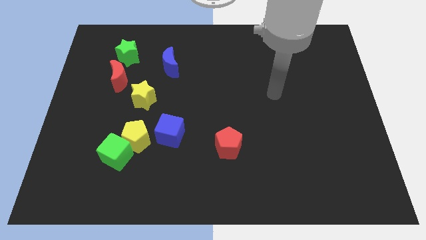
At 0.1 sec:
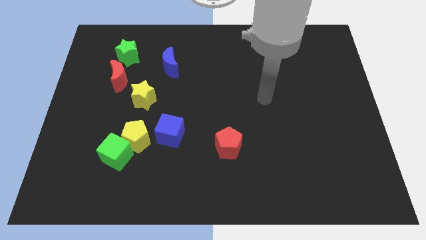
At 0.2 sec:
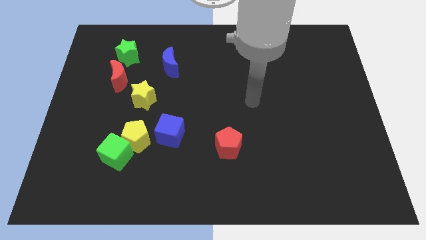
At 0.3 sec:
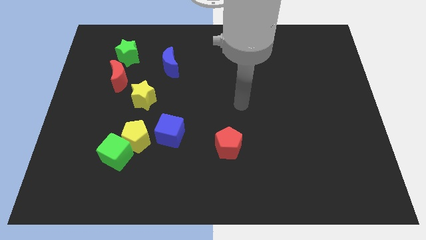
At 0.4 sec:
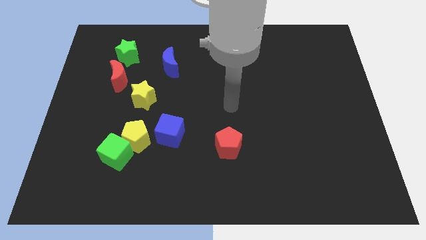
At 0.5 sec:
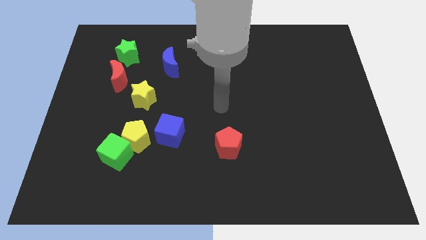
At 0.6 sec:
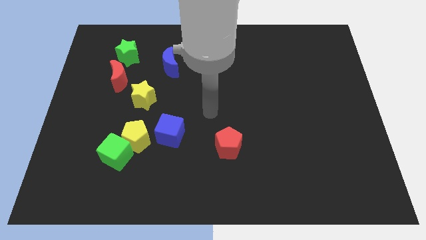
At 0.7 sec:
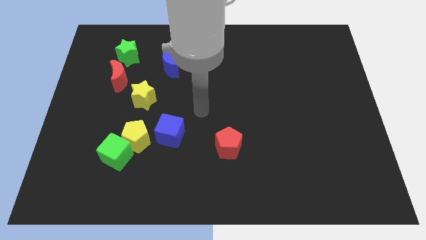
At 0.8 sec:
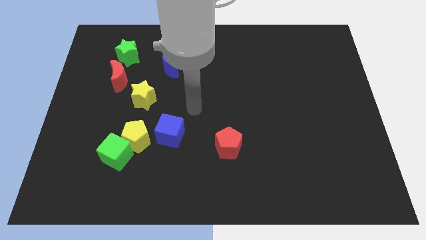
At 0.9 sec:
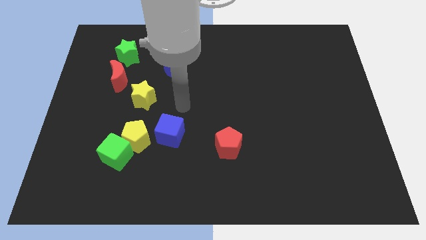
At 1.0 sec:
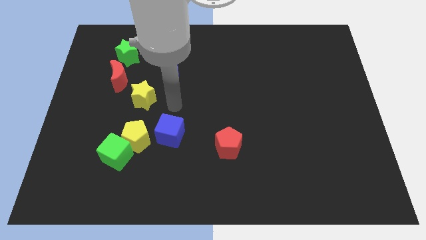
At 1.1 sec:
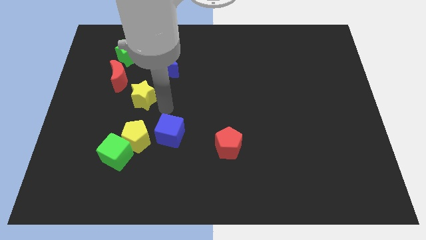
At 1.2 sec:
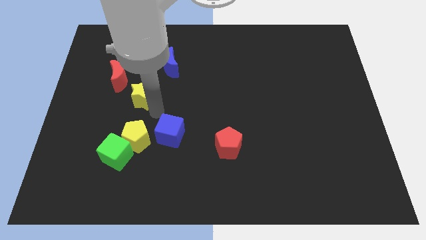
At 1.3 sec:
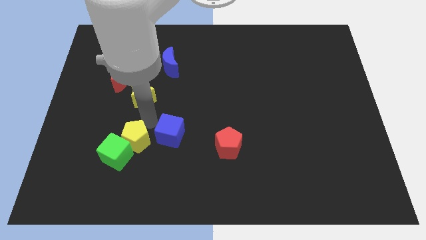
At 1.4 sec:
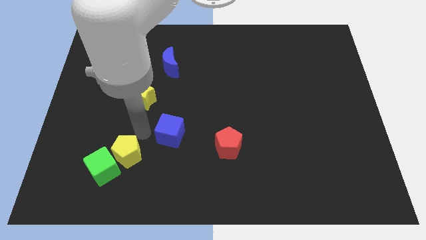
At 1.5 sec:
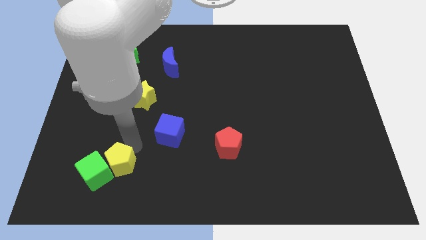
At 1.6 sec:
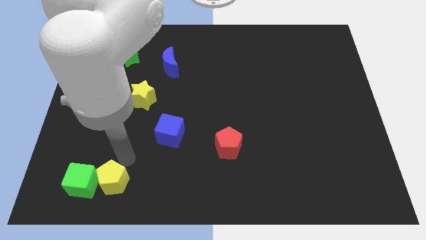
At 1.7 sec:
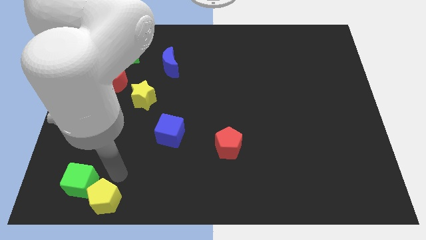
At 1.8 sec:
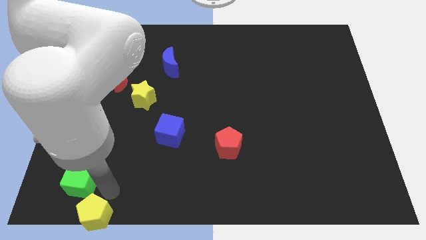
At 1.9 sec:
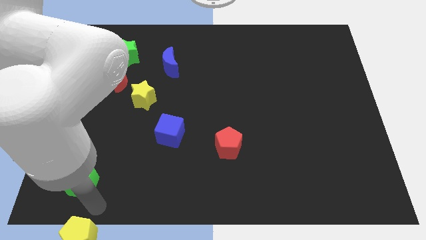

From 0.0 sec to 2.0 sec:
move the green cube away from the yellow pentagon

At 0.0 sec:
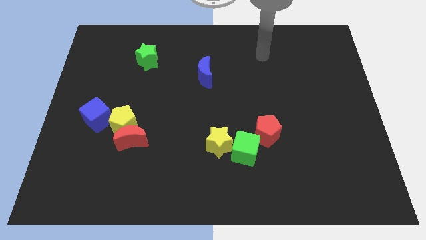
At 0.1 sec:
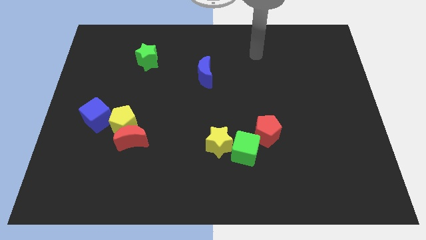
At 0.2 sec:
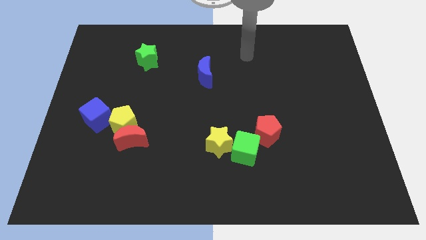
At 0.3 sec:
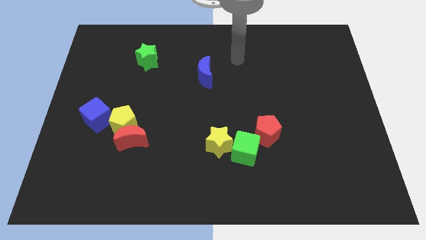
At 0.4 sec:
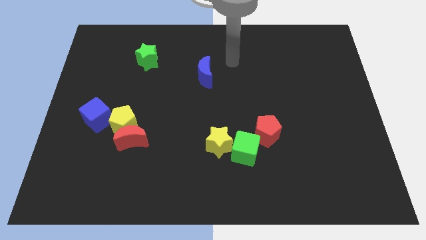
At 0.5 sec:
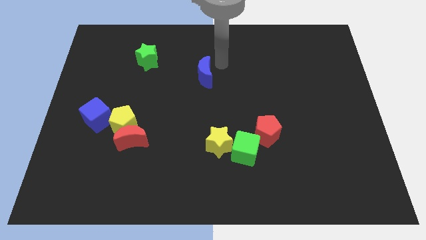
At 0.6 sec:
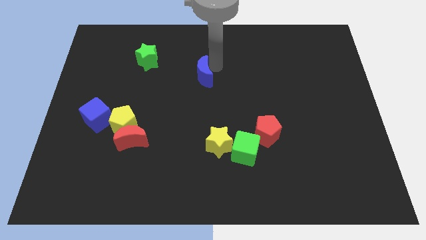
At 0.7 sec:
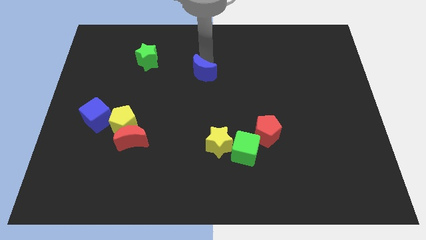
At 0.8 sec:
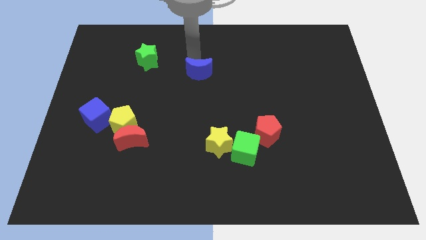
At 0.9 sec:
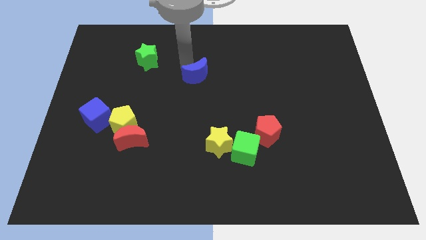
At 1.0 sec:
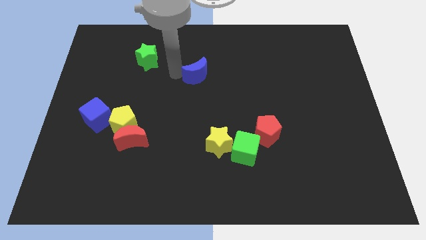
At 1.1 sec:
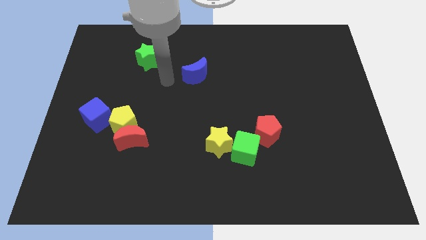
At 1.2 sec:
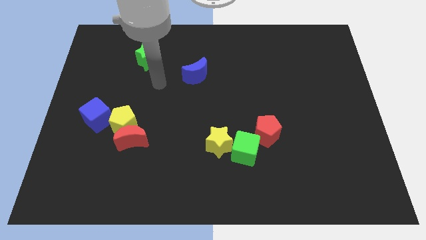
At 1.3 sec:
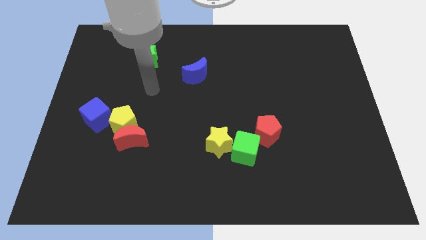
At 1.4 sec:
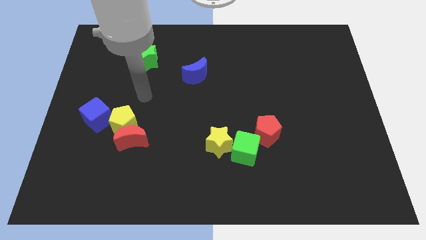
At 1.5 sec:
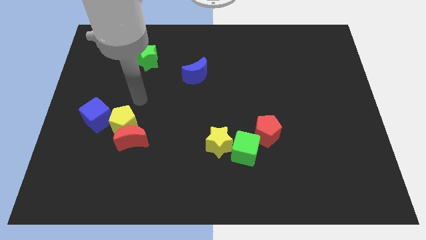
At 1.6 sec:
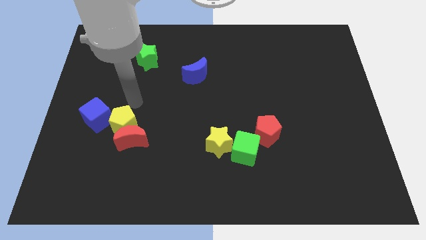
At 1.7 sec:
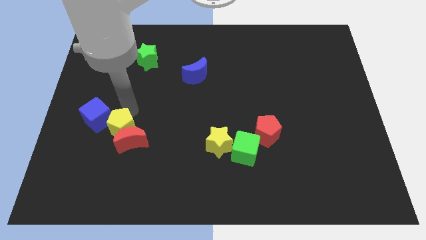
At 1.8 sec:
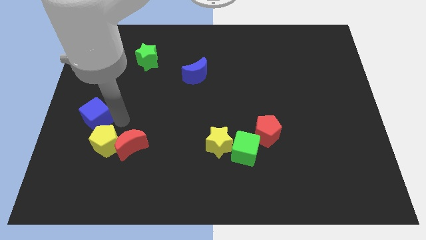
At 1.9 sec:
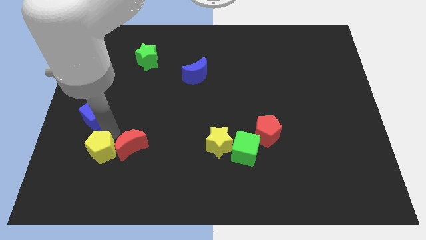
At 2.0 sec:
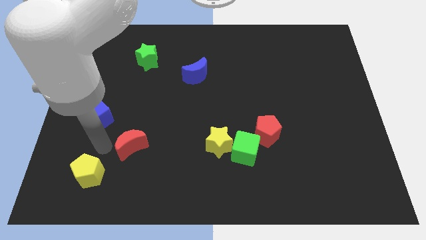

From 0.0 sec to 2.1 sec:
separate the red moon from the yellow pentagon

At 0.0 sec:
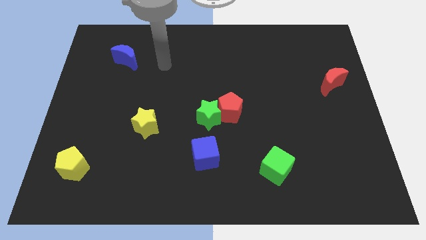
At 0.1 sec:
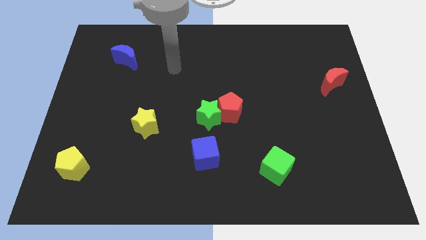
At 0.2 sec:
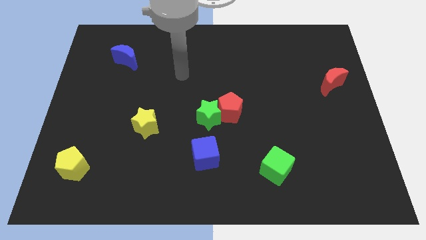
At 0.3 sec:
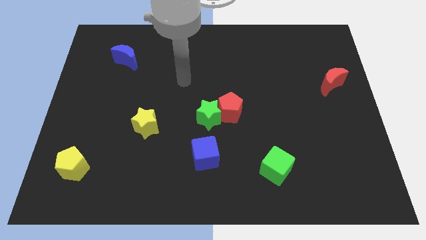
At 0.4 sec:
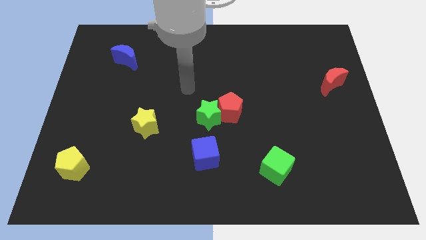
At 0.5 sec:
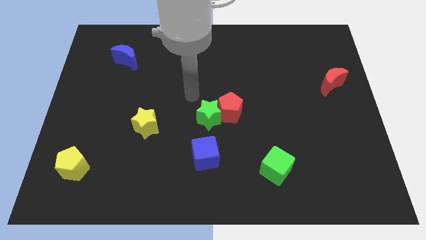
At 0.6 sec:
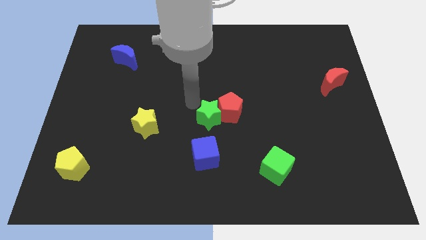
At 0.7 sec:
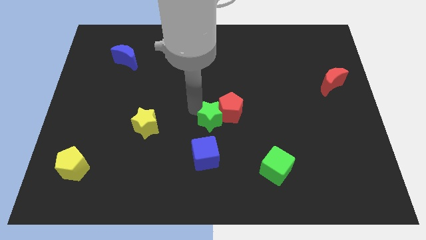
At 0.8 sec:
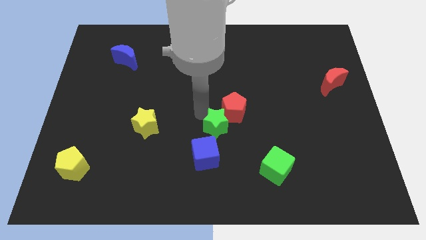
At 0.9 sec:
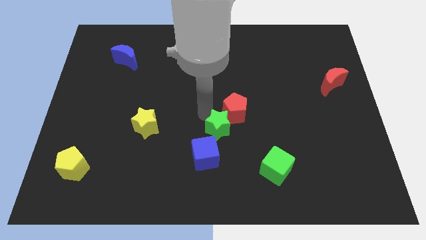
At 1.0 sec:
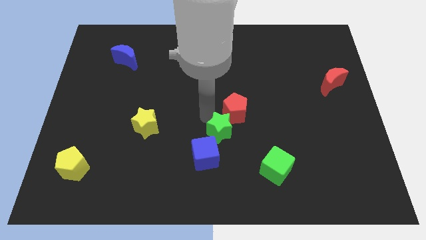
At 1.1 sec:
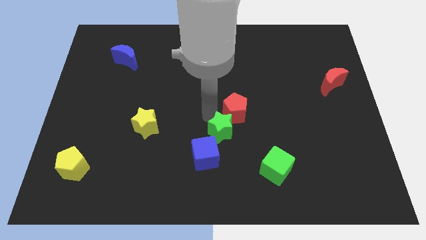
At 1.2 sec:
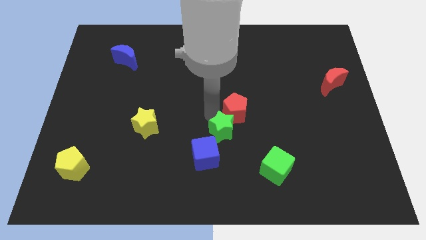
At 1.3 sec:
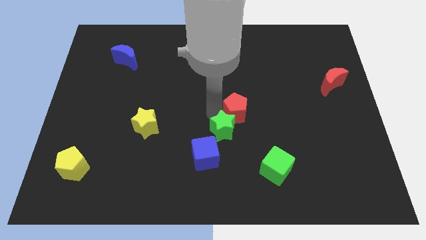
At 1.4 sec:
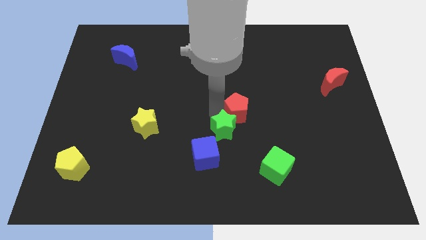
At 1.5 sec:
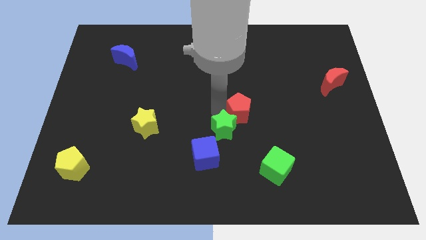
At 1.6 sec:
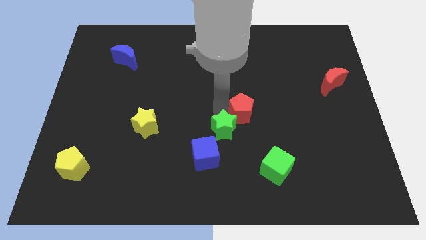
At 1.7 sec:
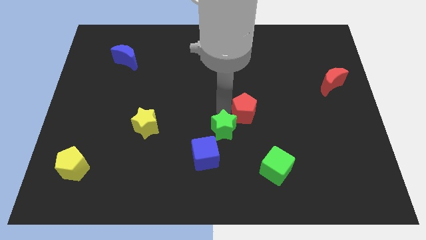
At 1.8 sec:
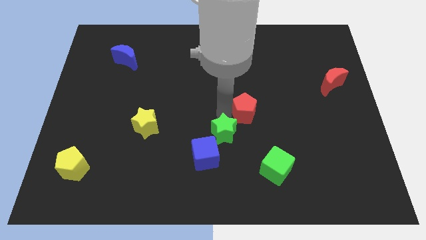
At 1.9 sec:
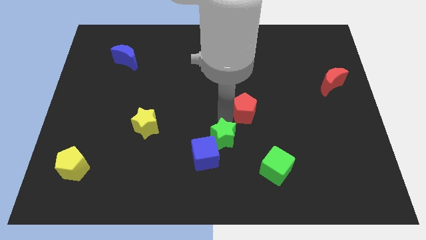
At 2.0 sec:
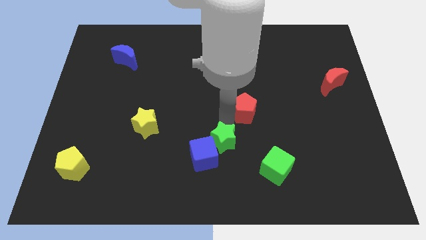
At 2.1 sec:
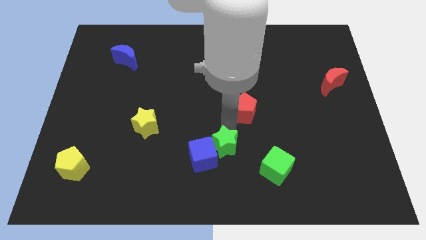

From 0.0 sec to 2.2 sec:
move the red pentagon away from the green star

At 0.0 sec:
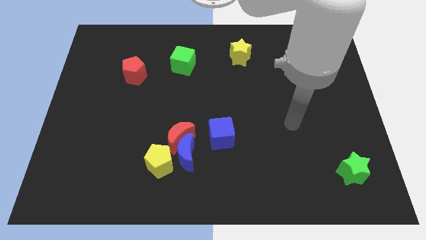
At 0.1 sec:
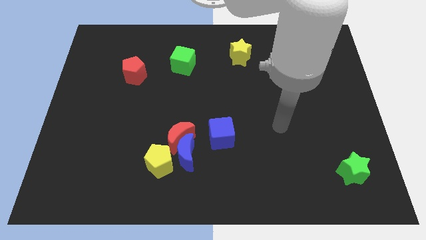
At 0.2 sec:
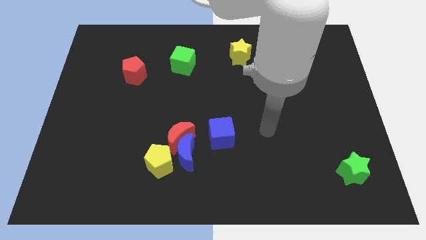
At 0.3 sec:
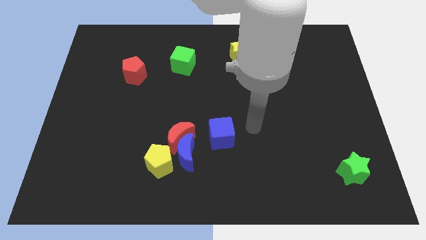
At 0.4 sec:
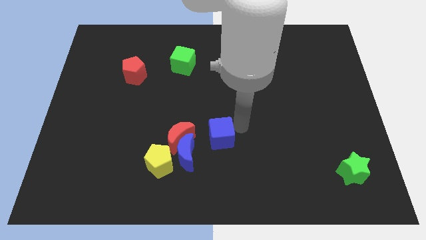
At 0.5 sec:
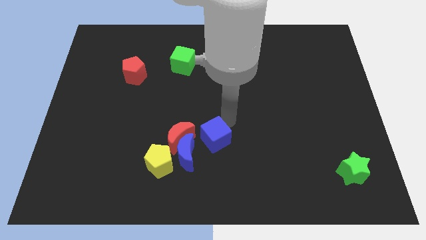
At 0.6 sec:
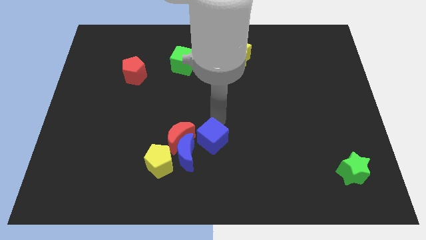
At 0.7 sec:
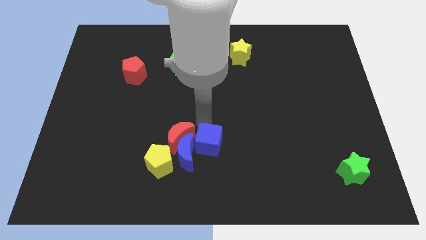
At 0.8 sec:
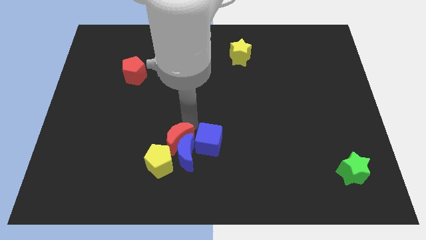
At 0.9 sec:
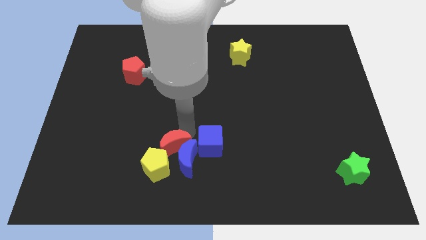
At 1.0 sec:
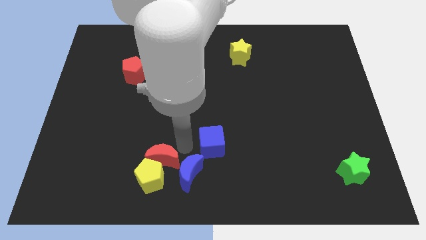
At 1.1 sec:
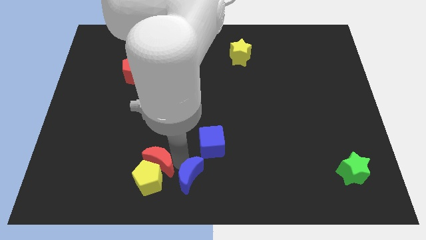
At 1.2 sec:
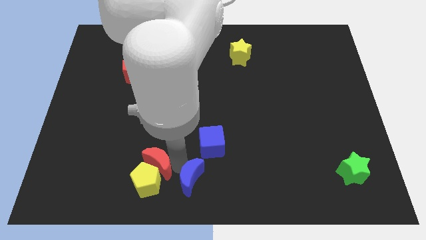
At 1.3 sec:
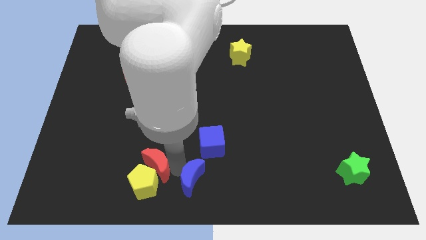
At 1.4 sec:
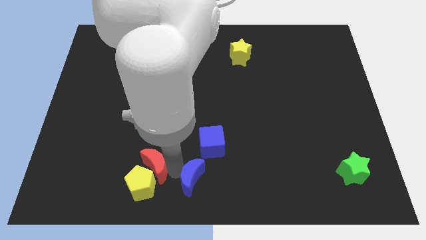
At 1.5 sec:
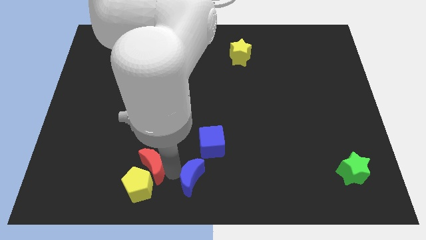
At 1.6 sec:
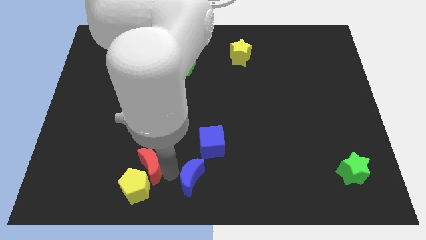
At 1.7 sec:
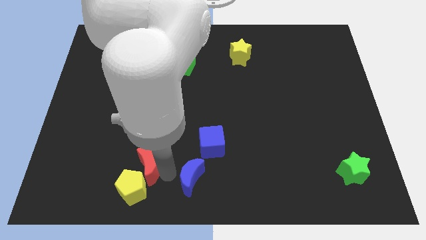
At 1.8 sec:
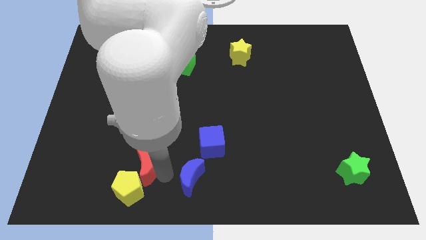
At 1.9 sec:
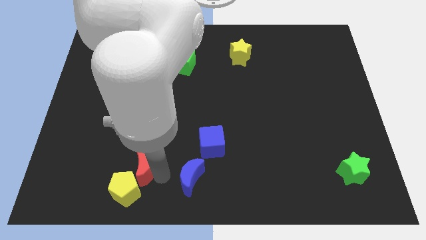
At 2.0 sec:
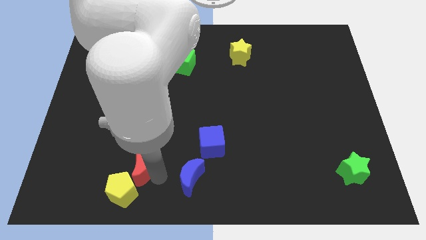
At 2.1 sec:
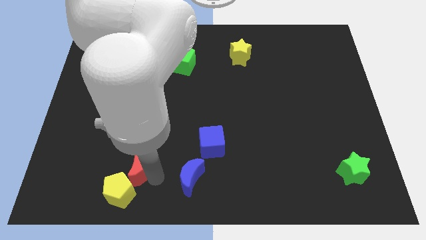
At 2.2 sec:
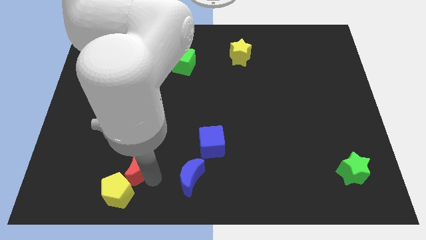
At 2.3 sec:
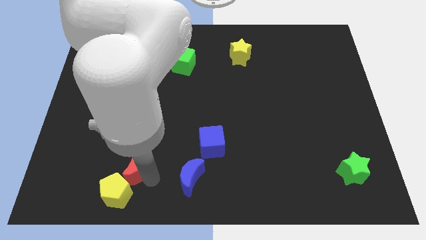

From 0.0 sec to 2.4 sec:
move the yellow pentagon away from the blue moon and red moon

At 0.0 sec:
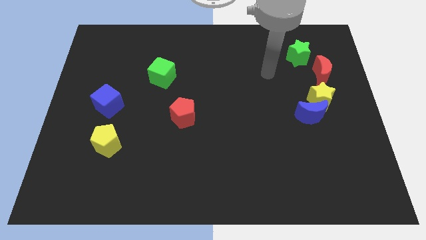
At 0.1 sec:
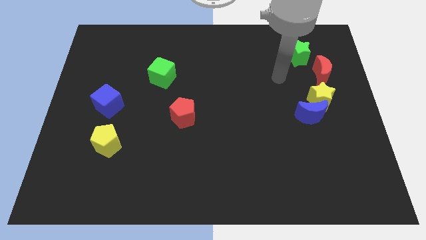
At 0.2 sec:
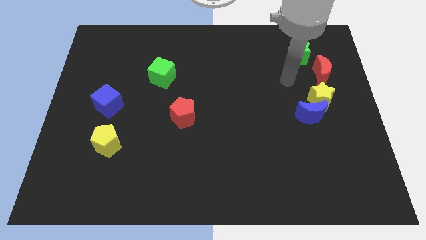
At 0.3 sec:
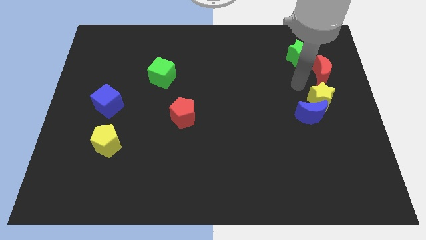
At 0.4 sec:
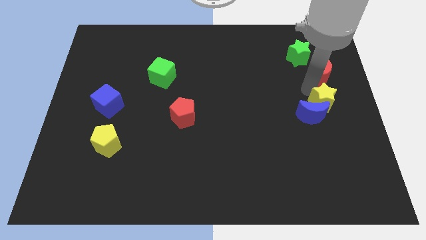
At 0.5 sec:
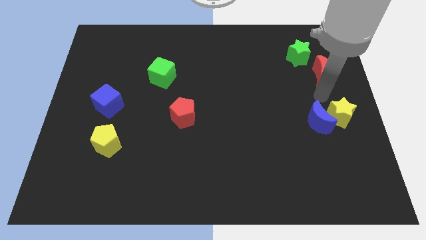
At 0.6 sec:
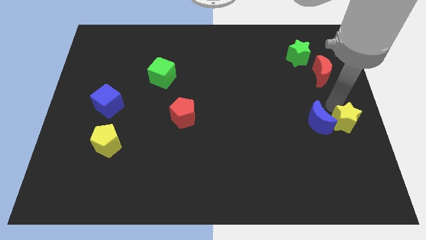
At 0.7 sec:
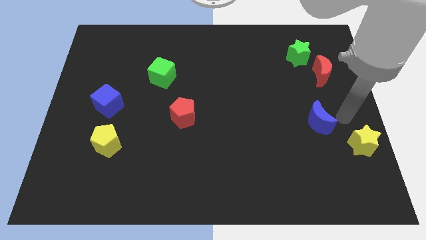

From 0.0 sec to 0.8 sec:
separate the blue moon from the yellow star
